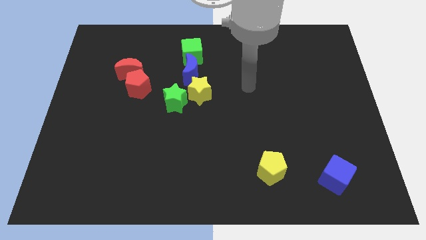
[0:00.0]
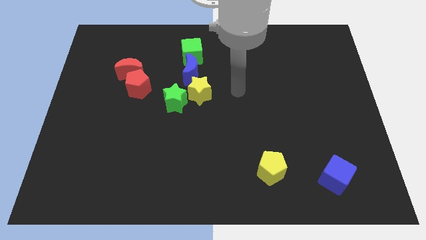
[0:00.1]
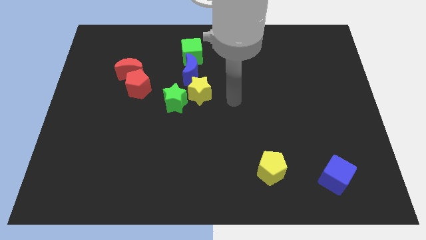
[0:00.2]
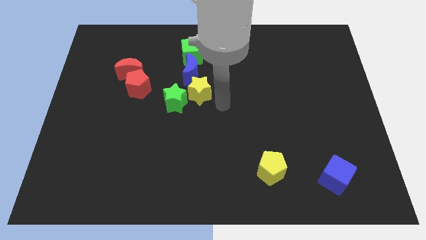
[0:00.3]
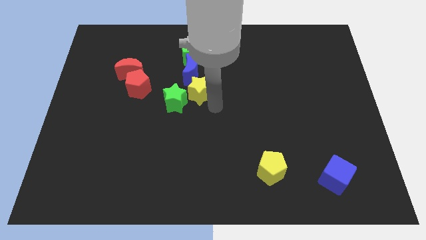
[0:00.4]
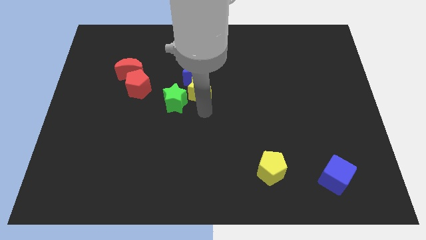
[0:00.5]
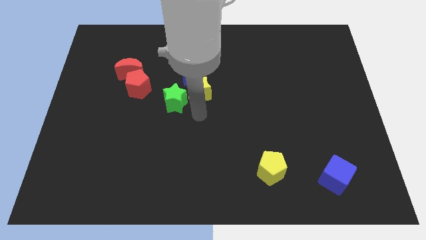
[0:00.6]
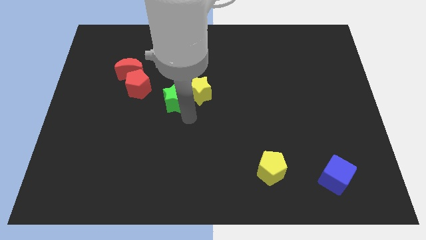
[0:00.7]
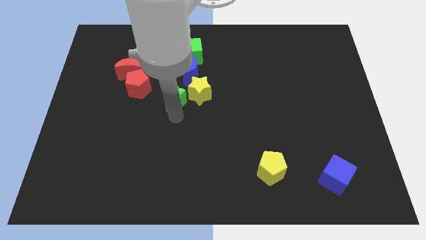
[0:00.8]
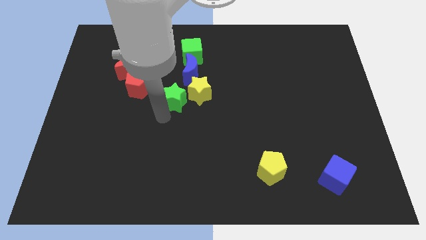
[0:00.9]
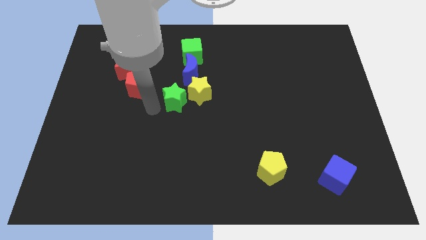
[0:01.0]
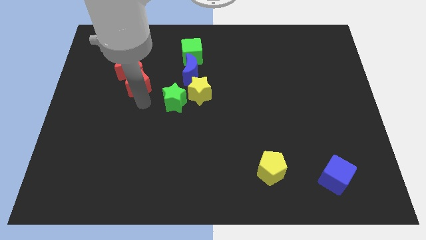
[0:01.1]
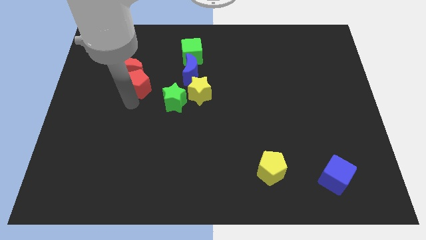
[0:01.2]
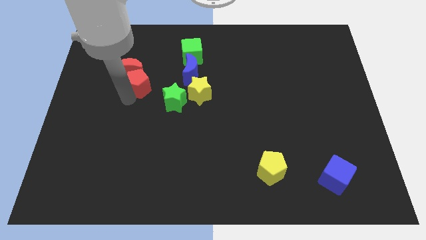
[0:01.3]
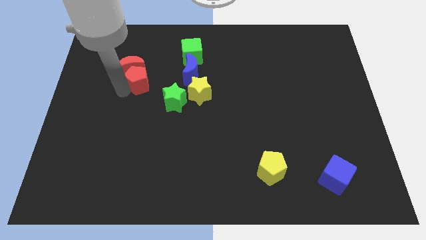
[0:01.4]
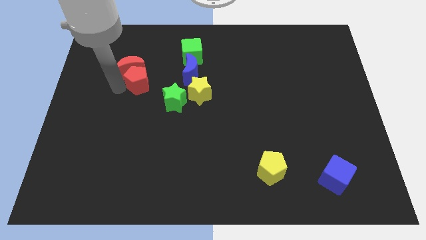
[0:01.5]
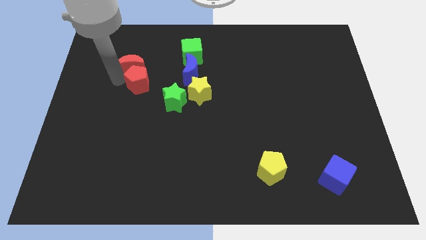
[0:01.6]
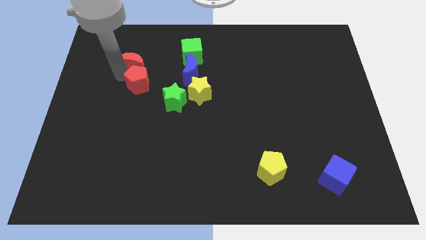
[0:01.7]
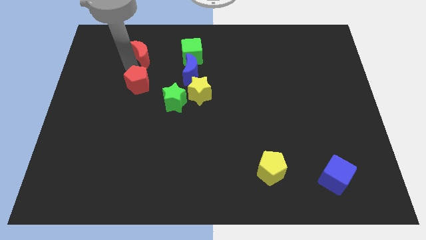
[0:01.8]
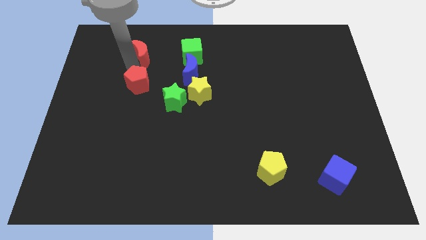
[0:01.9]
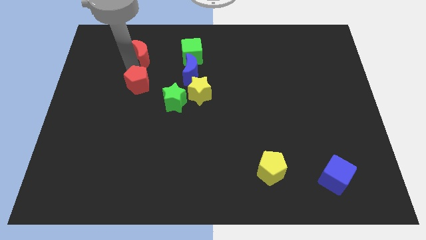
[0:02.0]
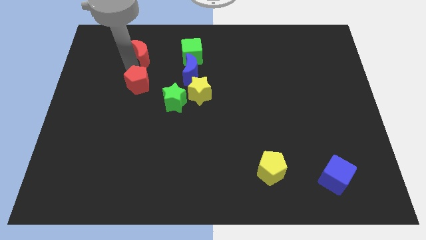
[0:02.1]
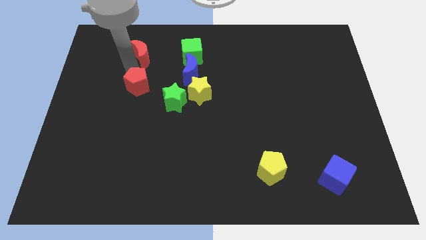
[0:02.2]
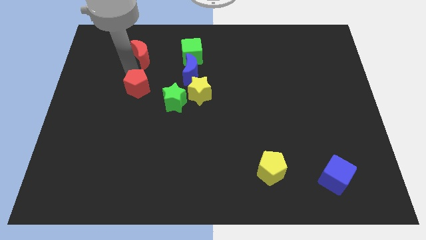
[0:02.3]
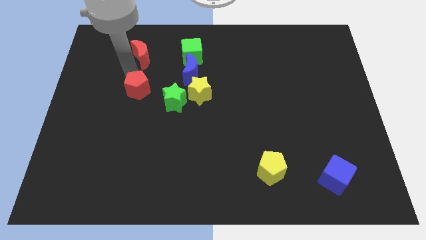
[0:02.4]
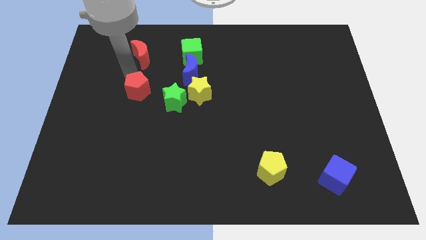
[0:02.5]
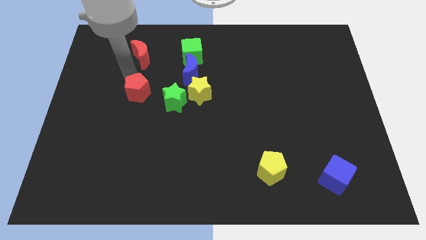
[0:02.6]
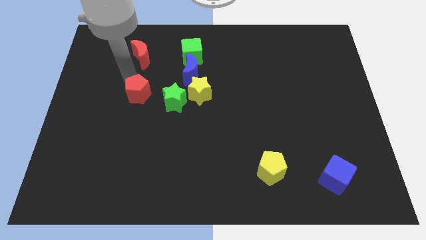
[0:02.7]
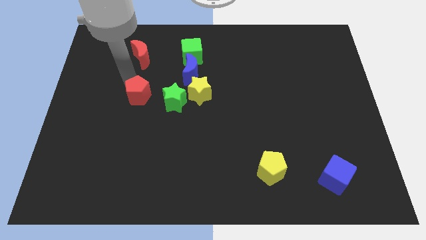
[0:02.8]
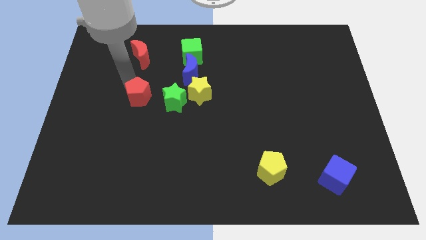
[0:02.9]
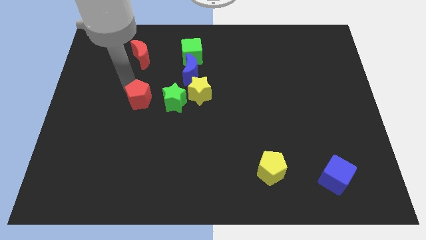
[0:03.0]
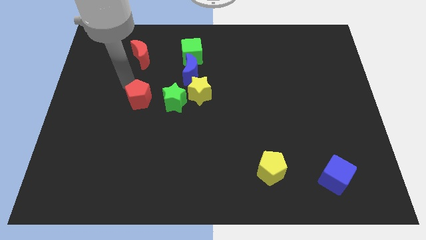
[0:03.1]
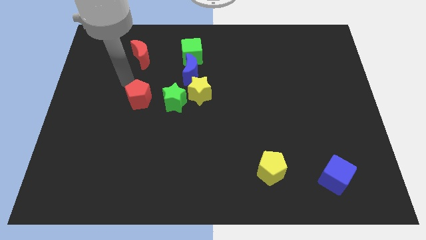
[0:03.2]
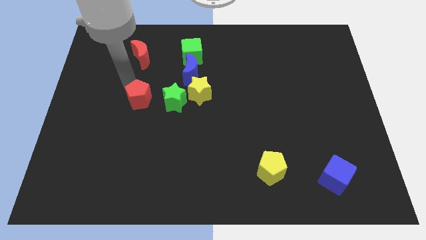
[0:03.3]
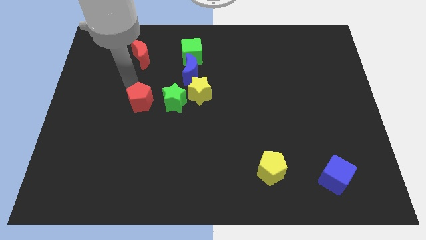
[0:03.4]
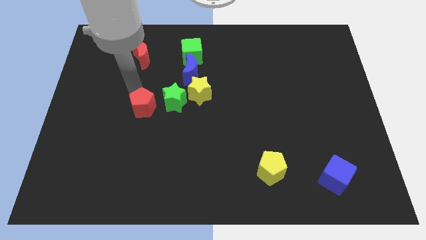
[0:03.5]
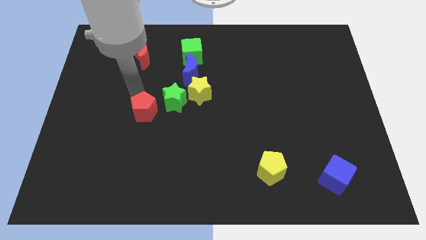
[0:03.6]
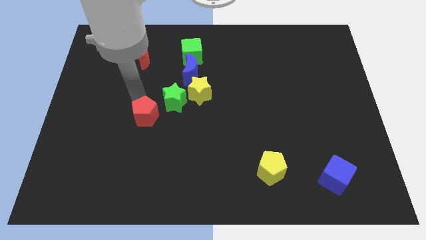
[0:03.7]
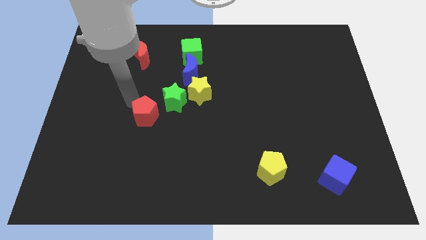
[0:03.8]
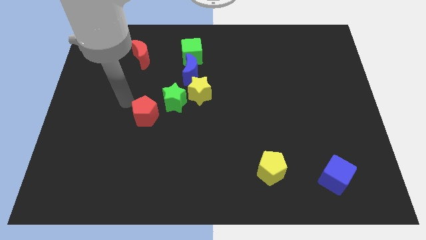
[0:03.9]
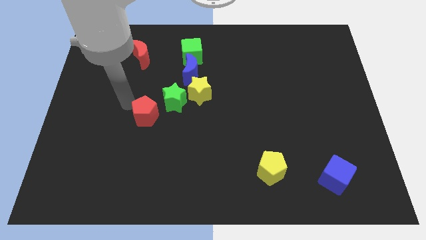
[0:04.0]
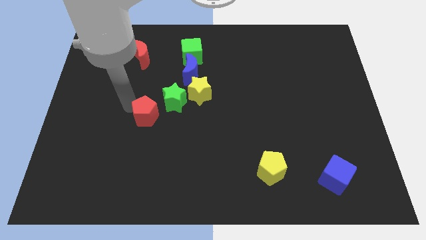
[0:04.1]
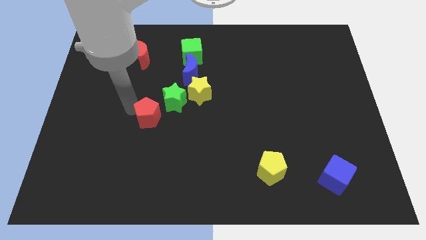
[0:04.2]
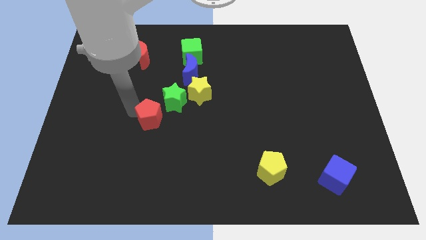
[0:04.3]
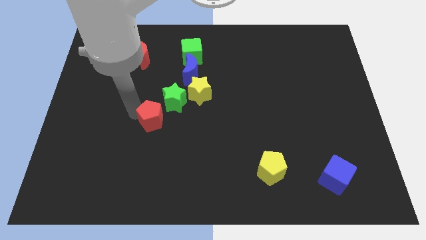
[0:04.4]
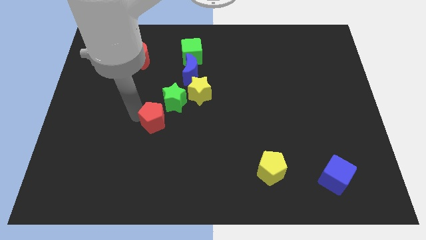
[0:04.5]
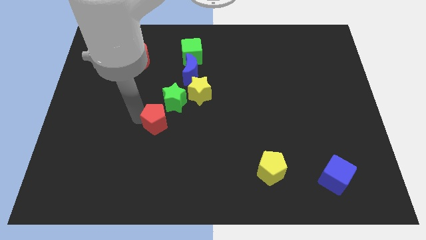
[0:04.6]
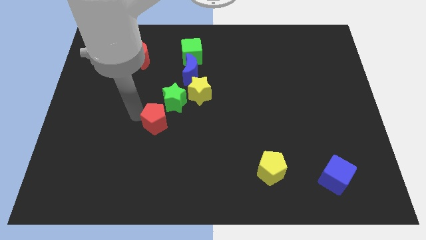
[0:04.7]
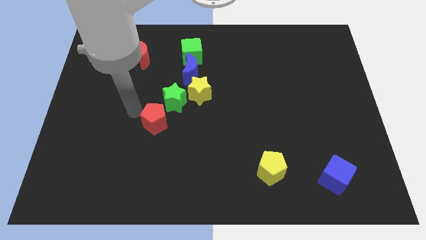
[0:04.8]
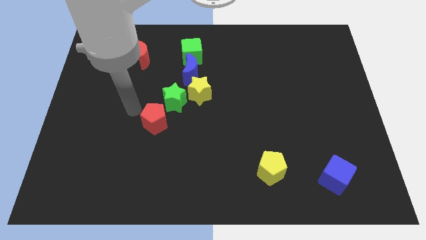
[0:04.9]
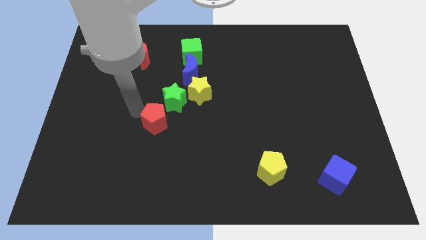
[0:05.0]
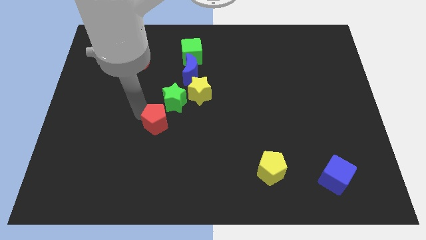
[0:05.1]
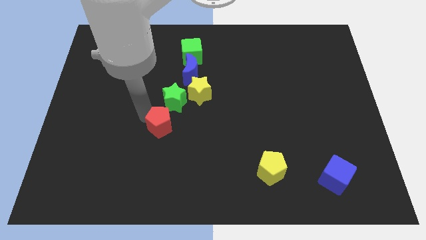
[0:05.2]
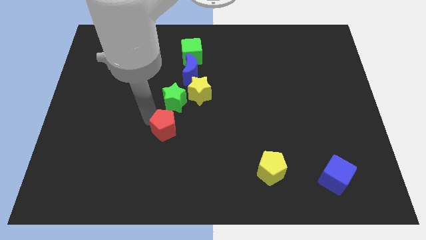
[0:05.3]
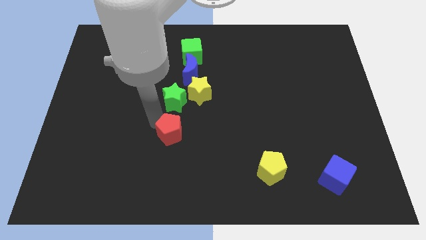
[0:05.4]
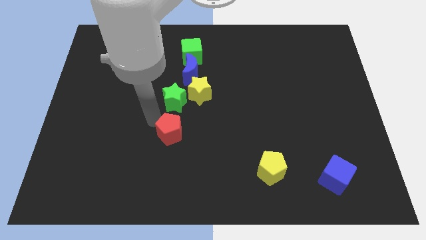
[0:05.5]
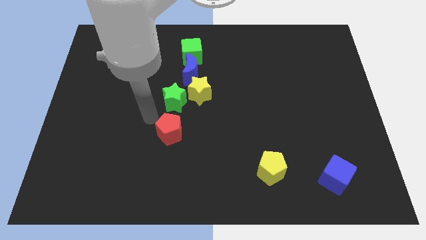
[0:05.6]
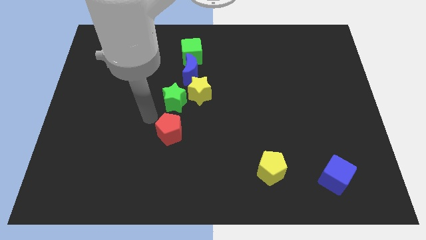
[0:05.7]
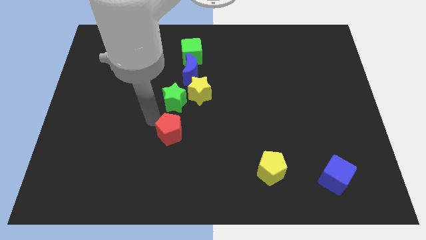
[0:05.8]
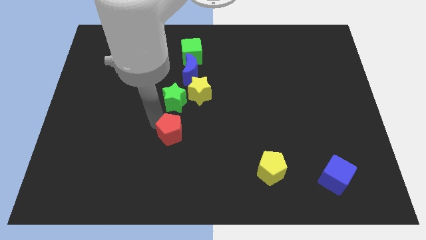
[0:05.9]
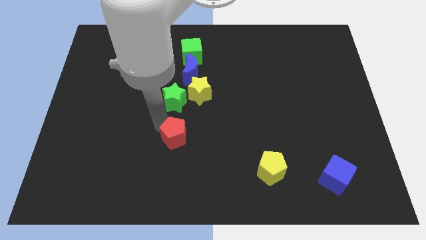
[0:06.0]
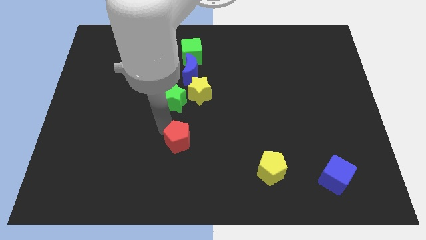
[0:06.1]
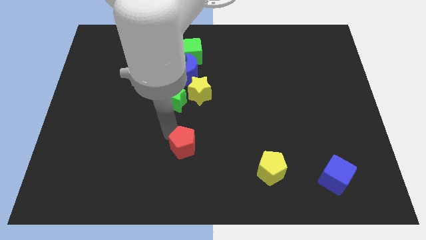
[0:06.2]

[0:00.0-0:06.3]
move the red pentagon downwards and right diagonally

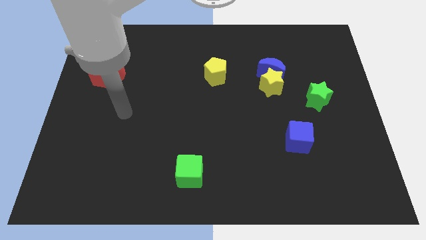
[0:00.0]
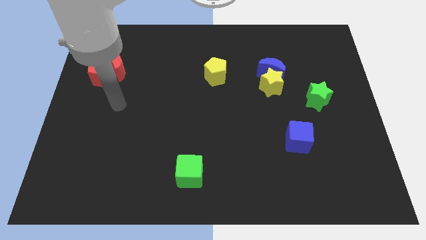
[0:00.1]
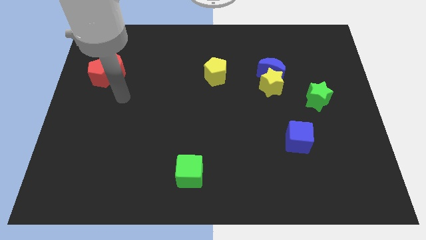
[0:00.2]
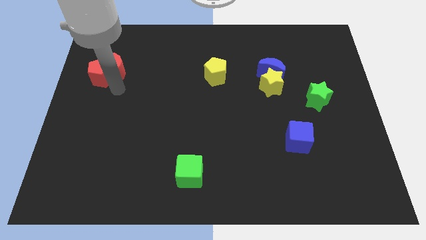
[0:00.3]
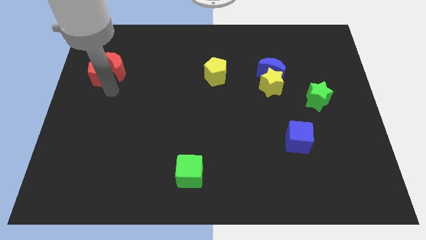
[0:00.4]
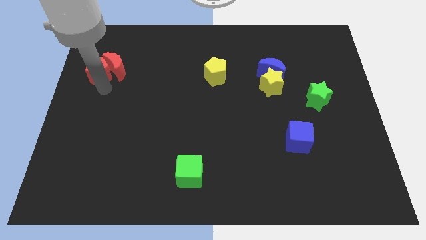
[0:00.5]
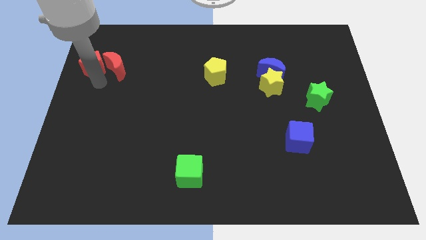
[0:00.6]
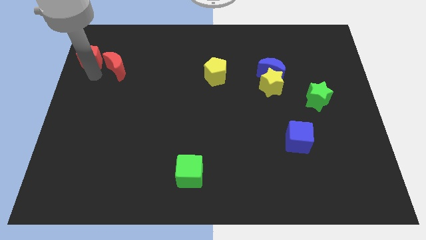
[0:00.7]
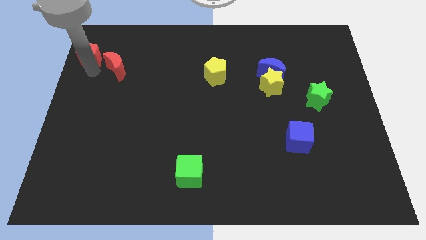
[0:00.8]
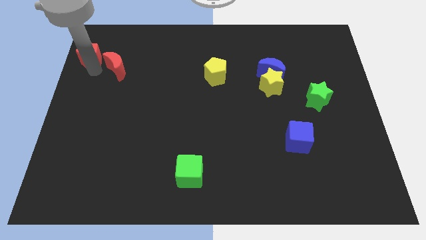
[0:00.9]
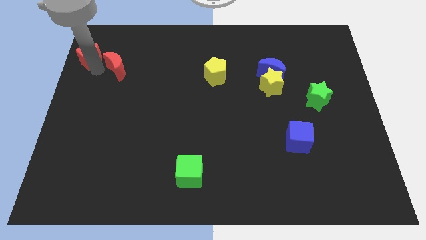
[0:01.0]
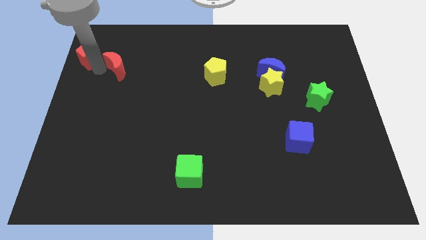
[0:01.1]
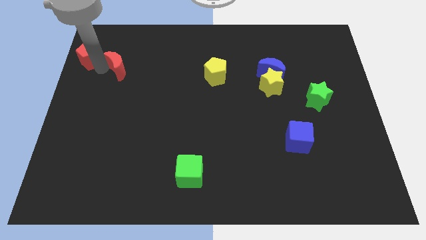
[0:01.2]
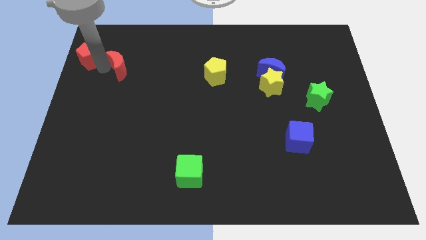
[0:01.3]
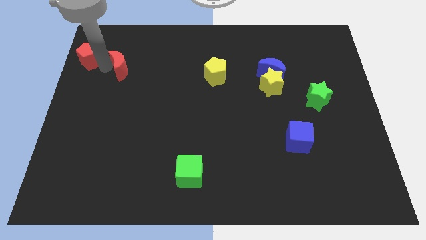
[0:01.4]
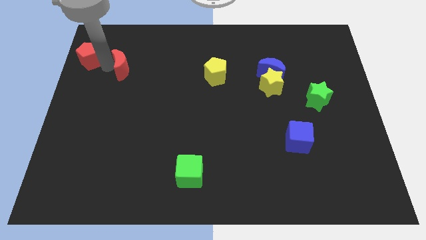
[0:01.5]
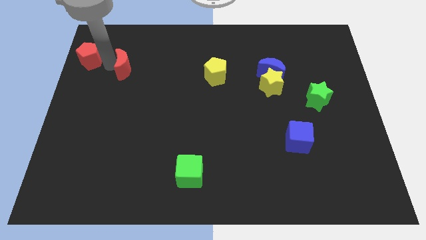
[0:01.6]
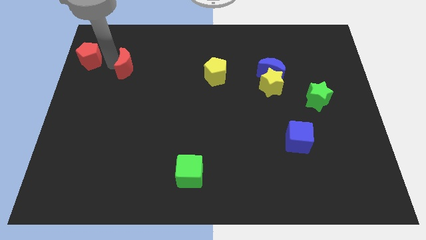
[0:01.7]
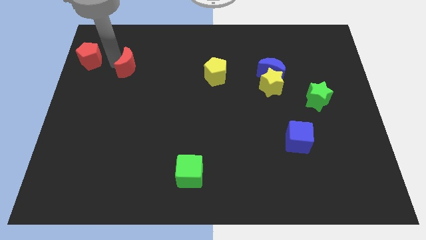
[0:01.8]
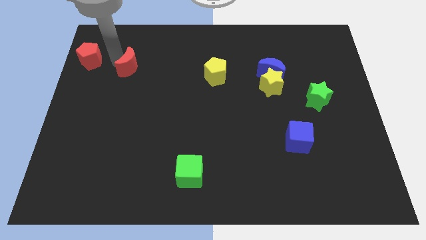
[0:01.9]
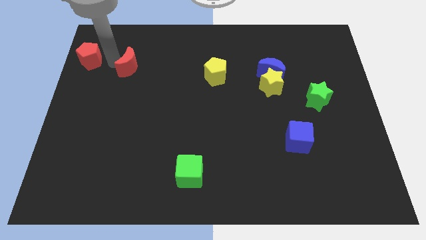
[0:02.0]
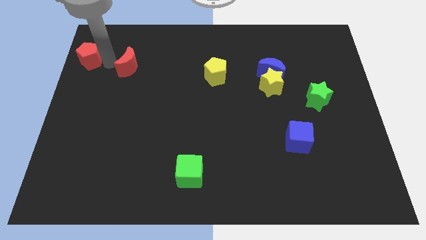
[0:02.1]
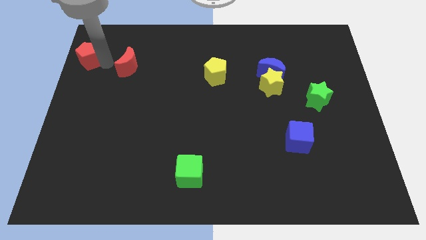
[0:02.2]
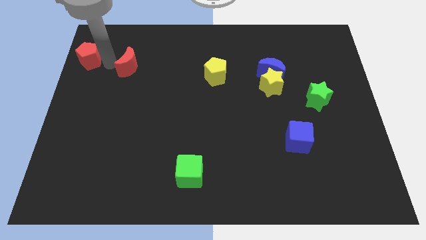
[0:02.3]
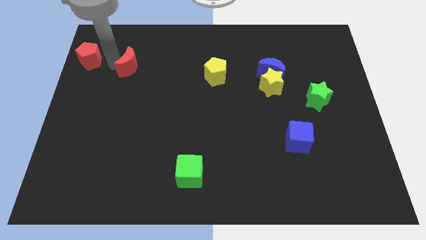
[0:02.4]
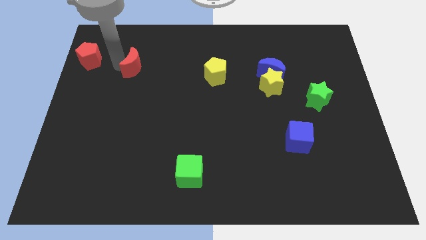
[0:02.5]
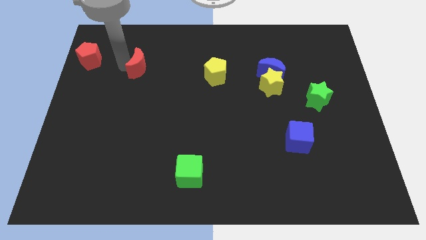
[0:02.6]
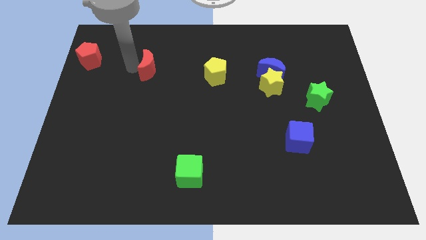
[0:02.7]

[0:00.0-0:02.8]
push the red moon to the right a bit
